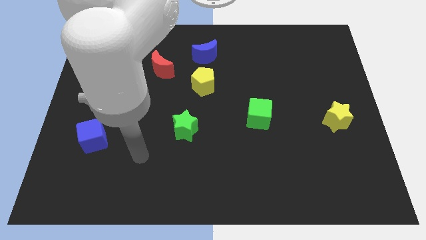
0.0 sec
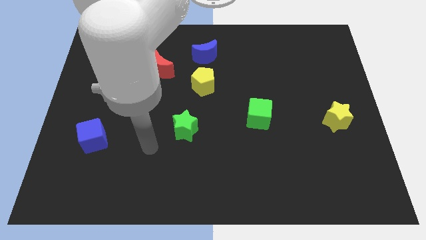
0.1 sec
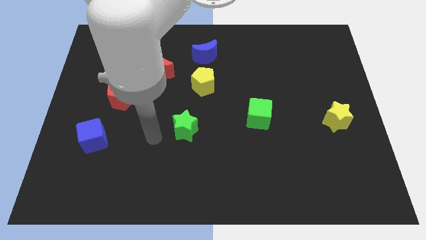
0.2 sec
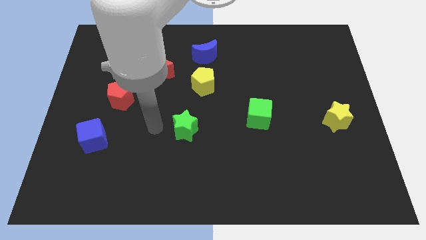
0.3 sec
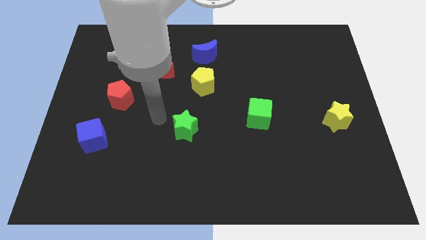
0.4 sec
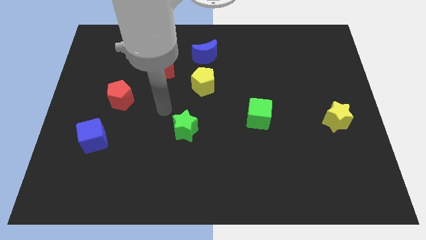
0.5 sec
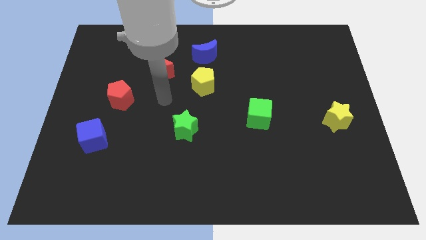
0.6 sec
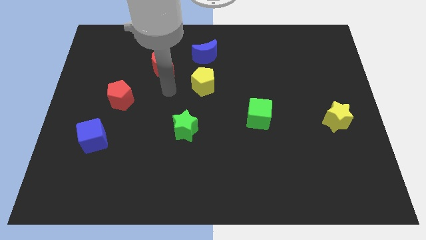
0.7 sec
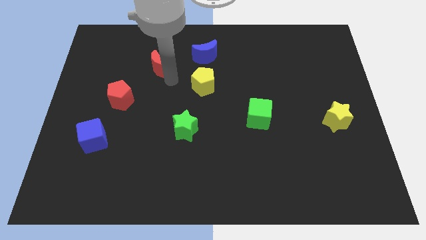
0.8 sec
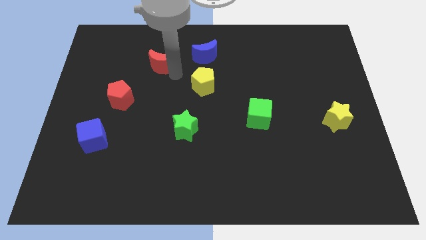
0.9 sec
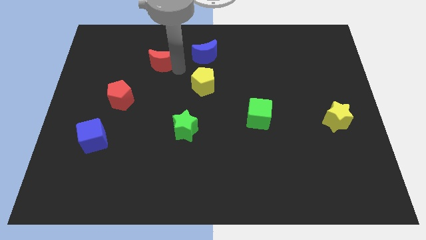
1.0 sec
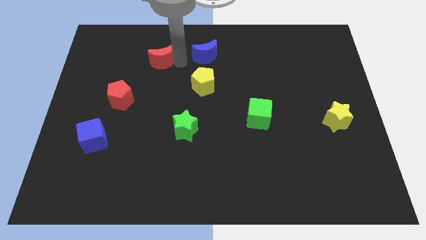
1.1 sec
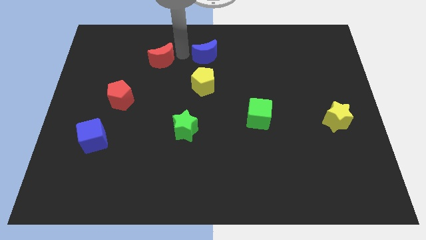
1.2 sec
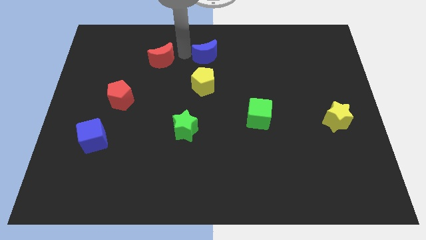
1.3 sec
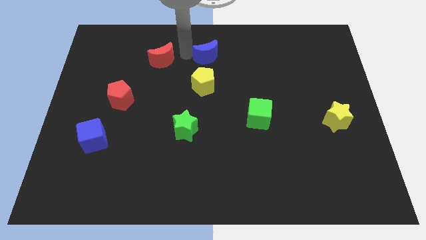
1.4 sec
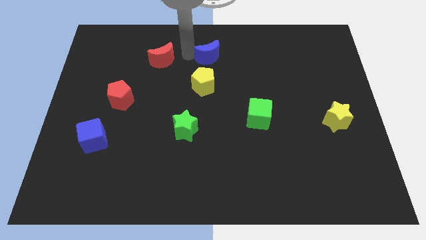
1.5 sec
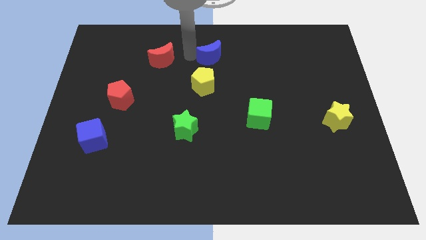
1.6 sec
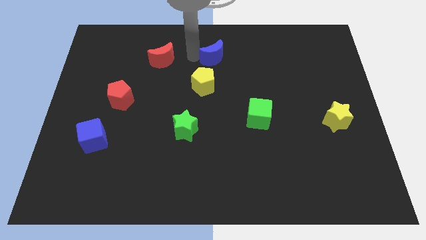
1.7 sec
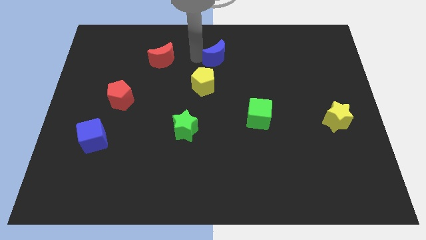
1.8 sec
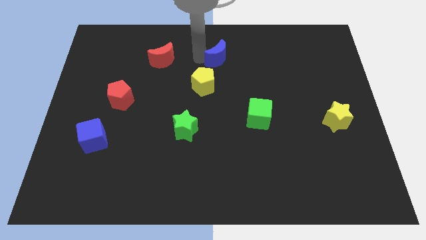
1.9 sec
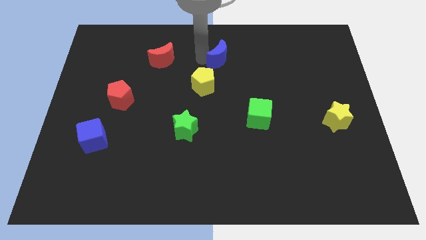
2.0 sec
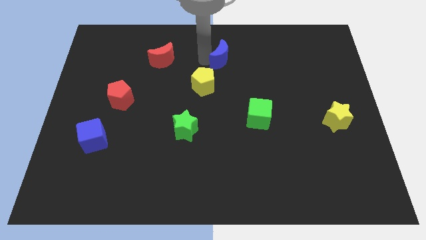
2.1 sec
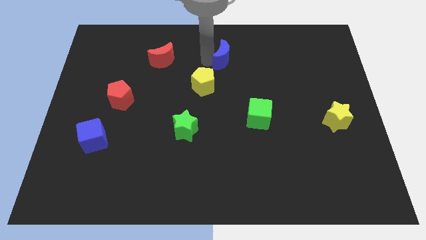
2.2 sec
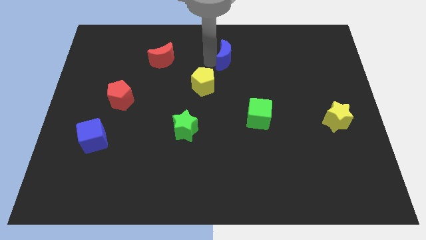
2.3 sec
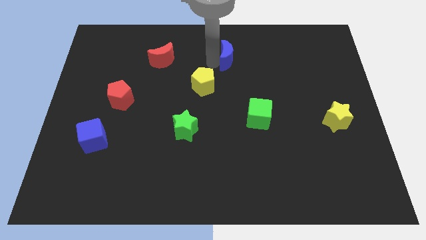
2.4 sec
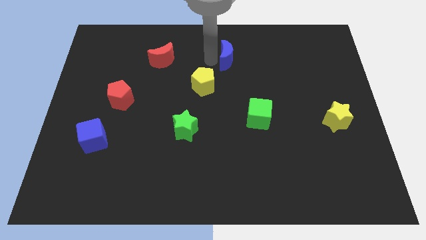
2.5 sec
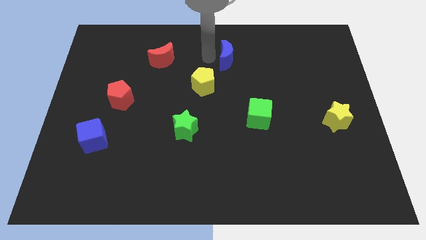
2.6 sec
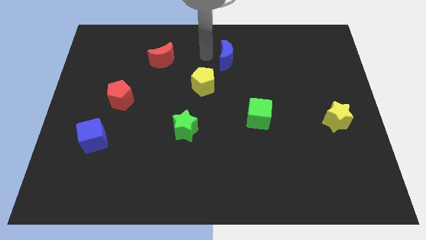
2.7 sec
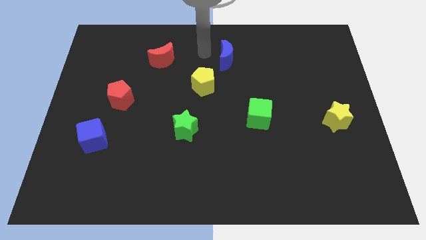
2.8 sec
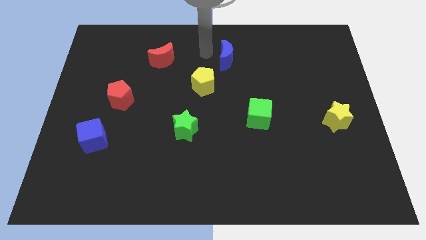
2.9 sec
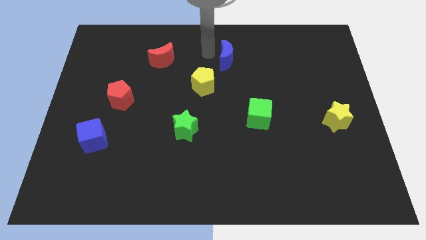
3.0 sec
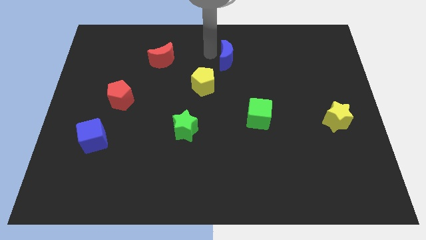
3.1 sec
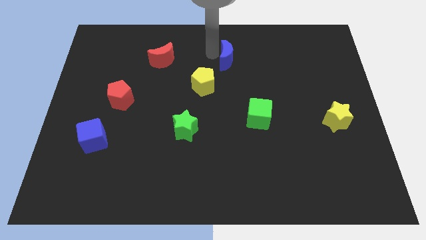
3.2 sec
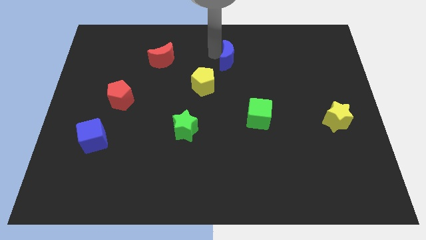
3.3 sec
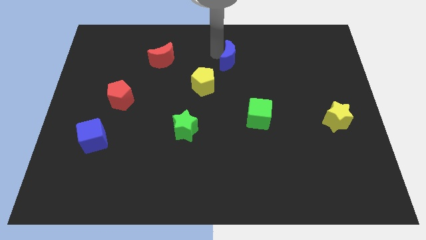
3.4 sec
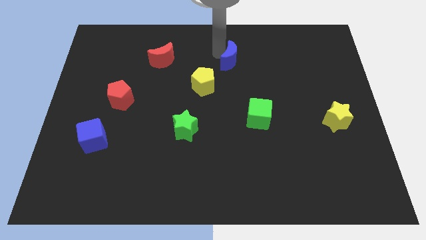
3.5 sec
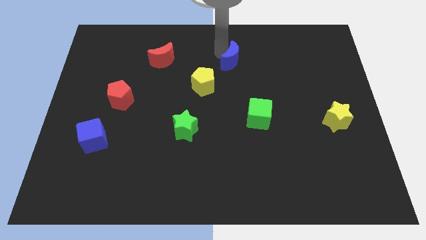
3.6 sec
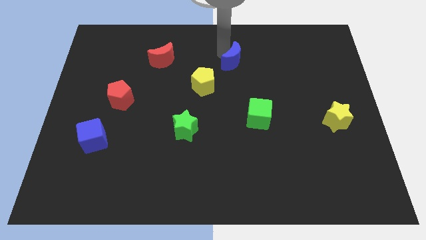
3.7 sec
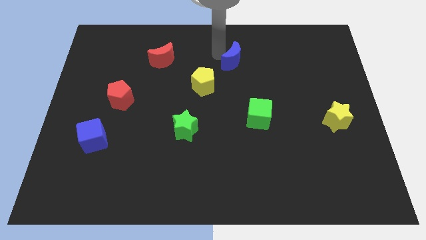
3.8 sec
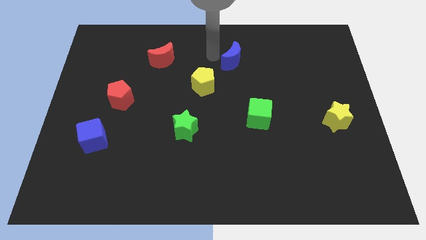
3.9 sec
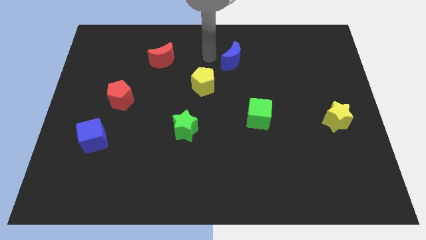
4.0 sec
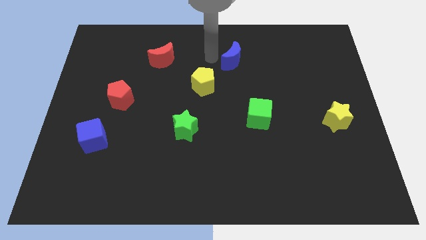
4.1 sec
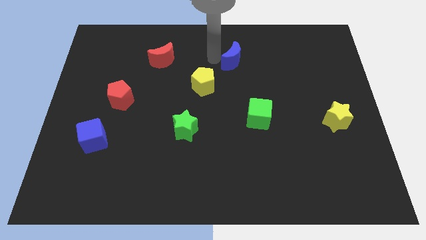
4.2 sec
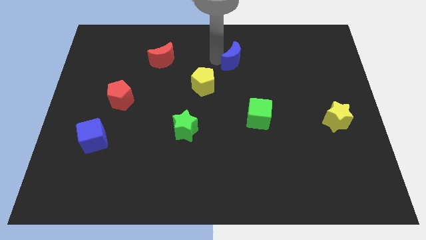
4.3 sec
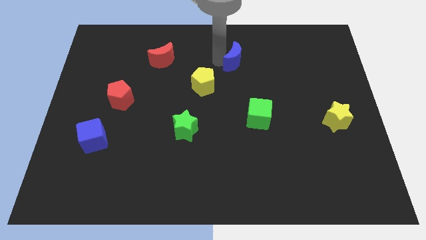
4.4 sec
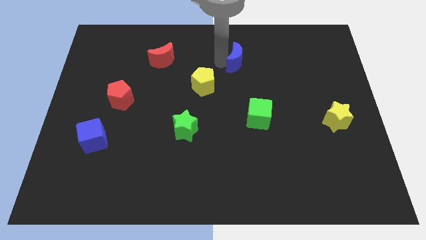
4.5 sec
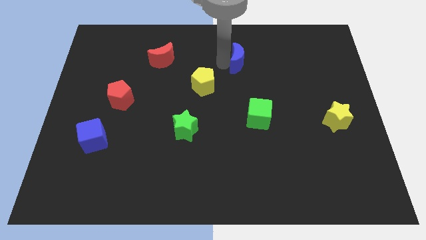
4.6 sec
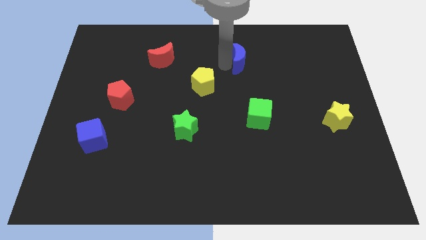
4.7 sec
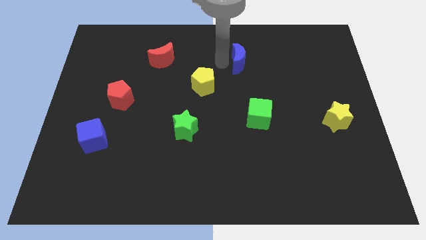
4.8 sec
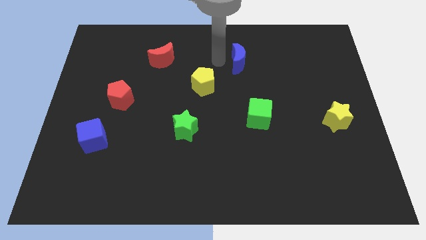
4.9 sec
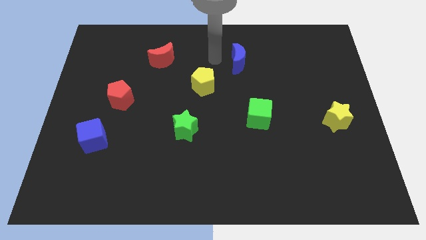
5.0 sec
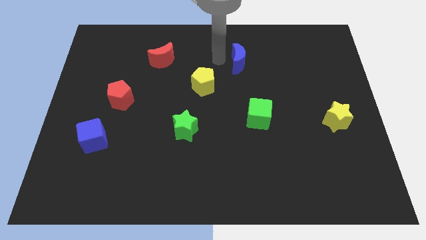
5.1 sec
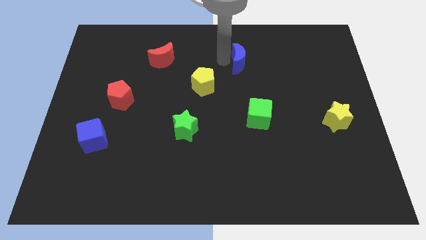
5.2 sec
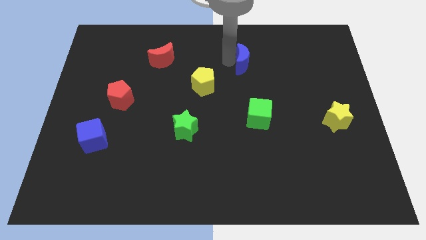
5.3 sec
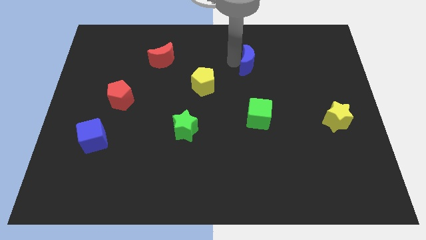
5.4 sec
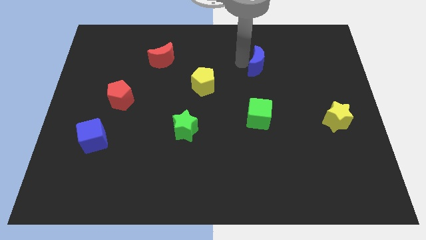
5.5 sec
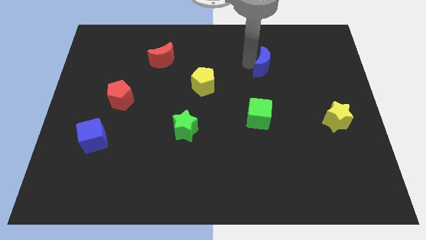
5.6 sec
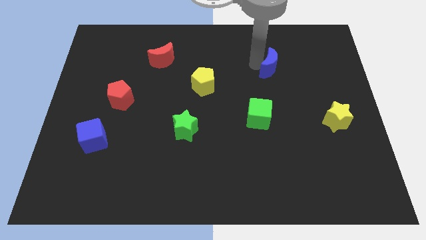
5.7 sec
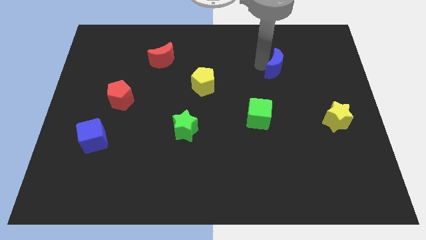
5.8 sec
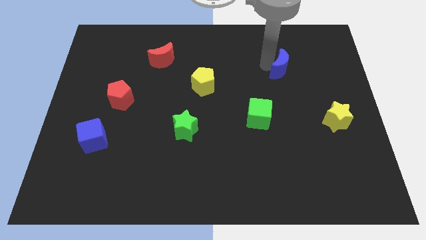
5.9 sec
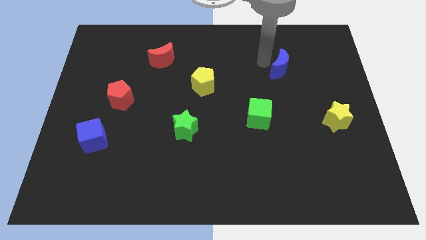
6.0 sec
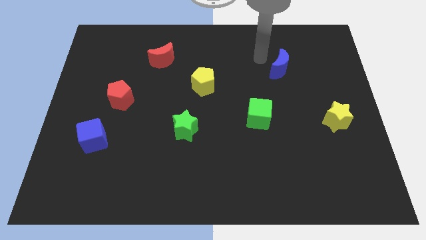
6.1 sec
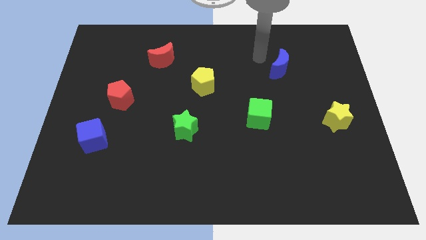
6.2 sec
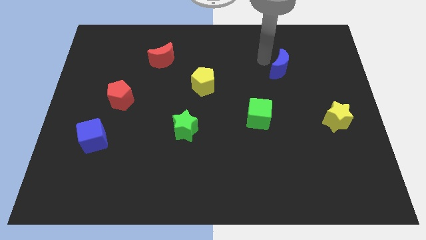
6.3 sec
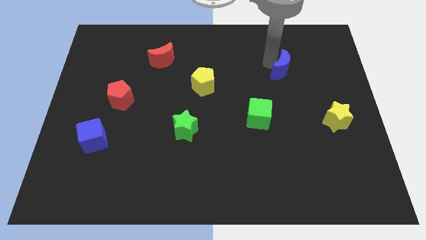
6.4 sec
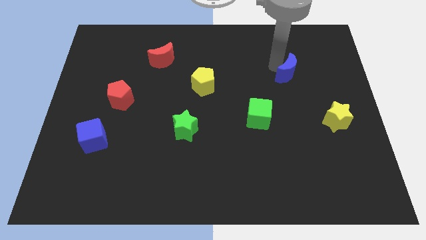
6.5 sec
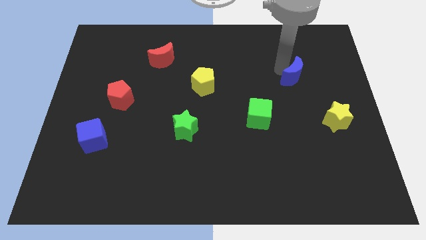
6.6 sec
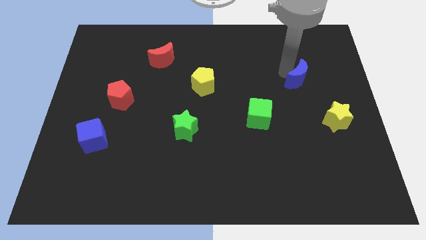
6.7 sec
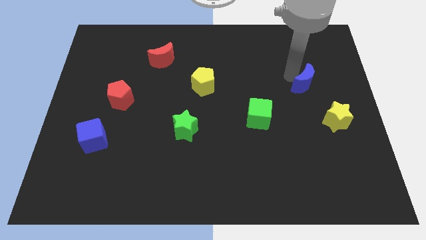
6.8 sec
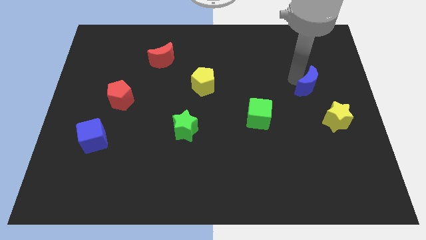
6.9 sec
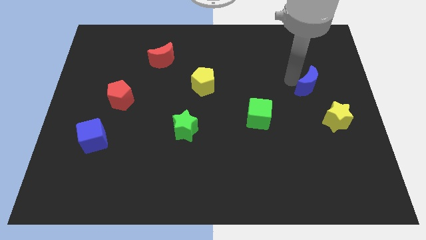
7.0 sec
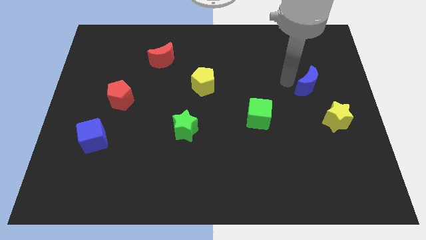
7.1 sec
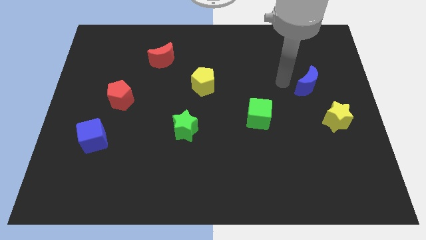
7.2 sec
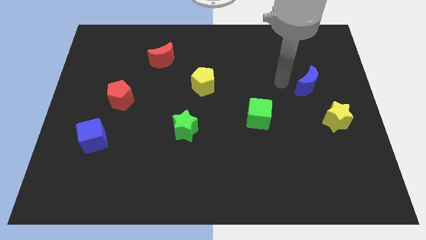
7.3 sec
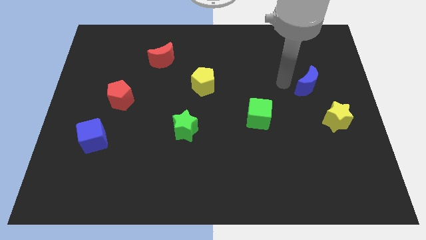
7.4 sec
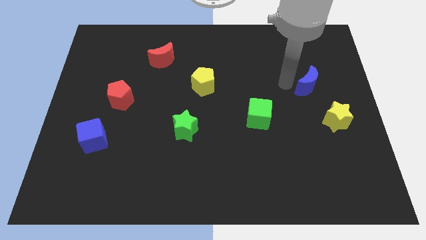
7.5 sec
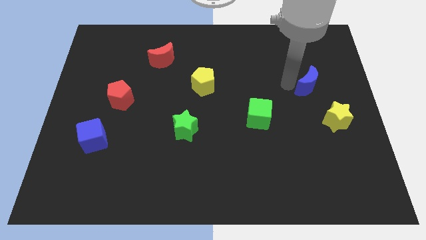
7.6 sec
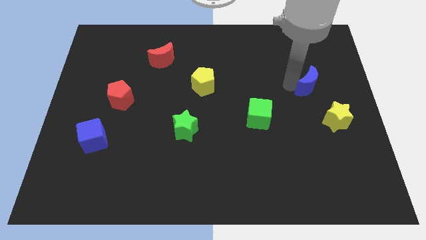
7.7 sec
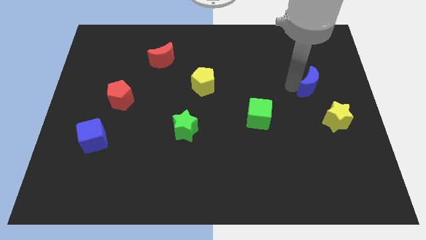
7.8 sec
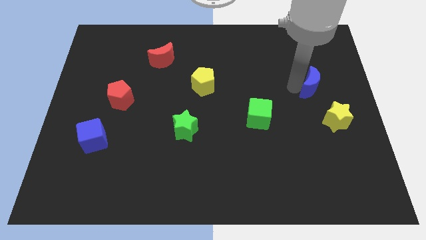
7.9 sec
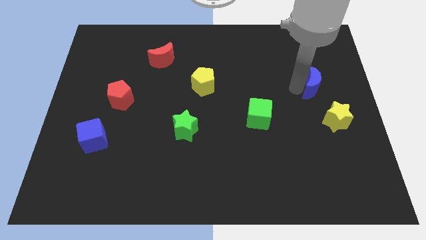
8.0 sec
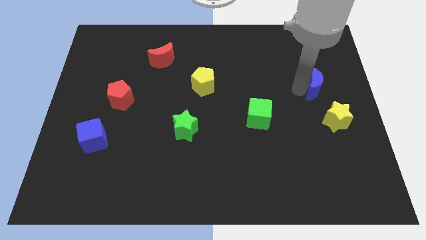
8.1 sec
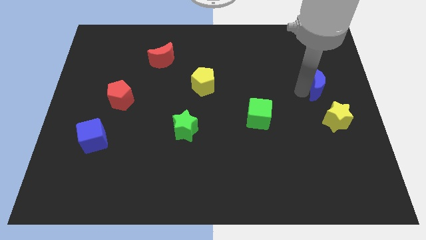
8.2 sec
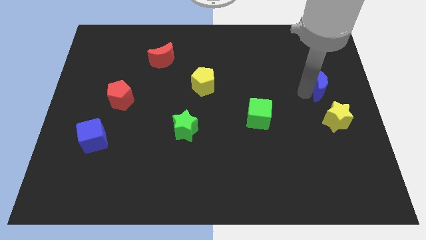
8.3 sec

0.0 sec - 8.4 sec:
put the blue moon to the right side of the board
